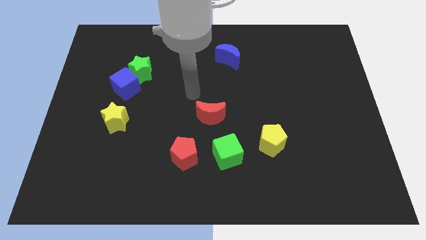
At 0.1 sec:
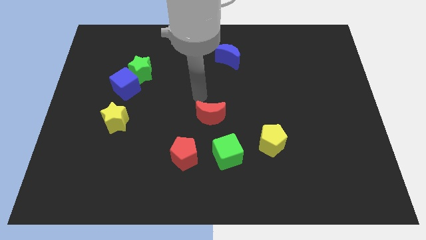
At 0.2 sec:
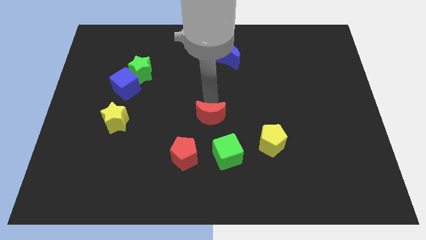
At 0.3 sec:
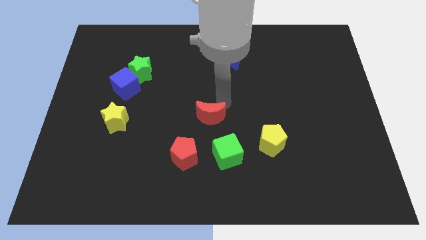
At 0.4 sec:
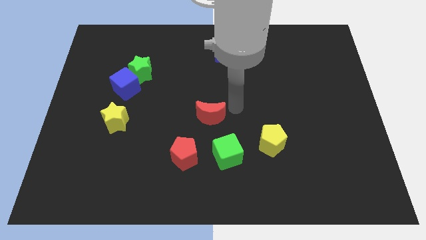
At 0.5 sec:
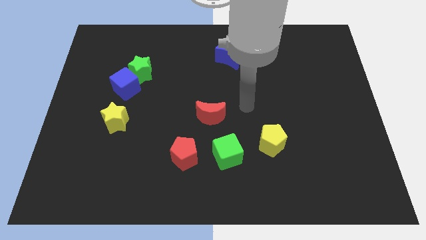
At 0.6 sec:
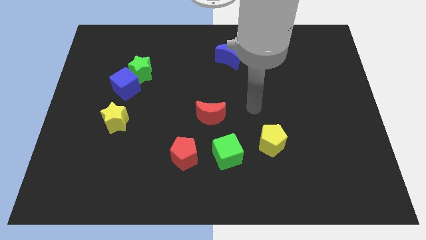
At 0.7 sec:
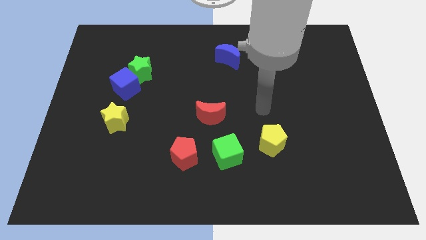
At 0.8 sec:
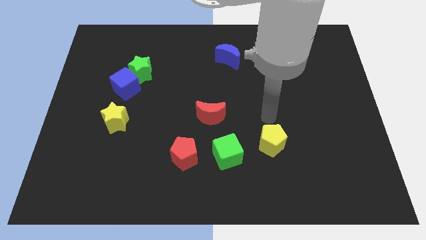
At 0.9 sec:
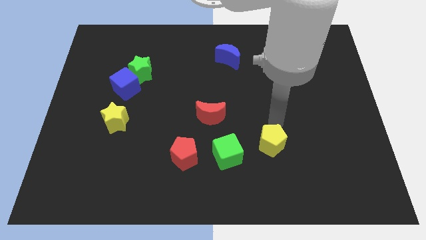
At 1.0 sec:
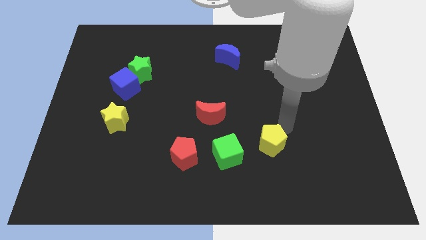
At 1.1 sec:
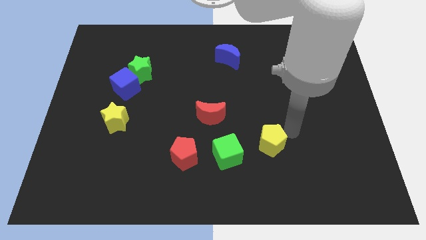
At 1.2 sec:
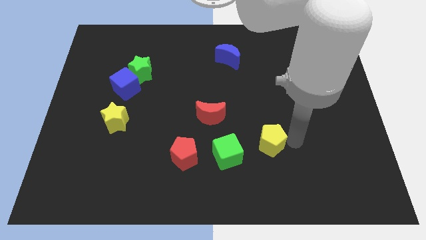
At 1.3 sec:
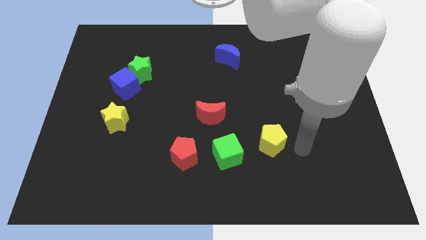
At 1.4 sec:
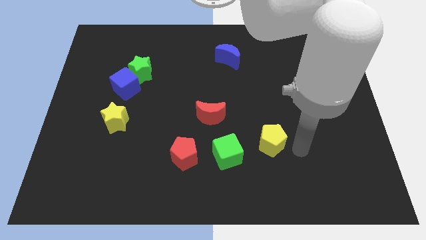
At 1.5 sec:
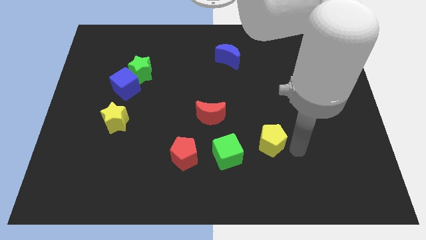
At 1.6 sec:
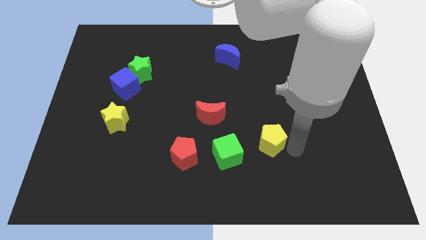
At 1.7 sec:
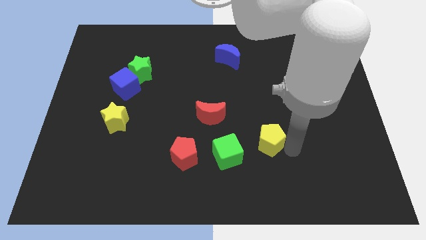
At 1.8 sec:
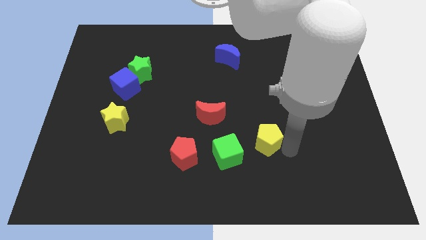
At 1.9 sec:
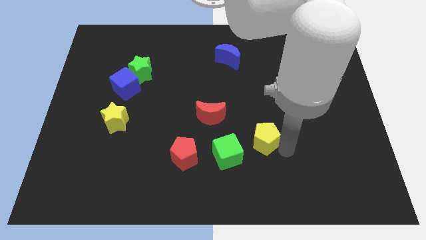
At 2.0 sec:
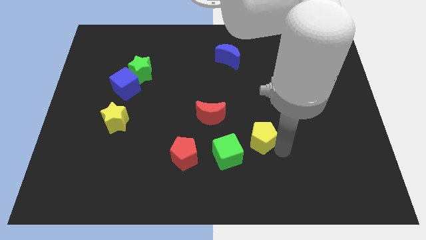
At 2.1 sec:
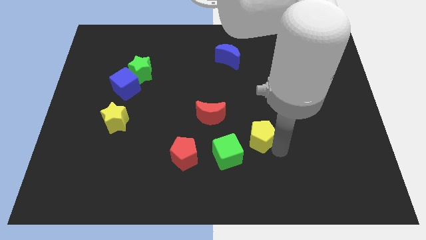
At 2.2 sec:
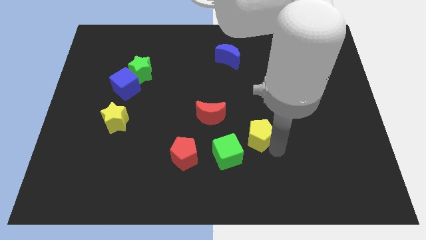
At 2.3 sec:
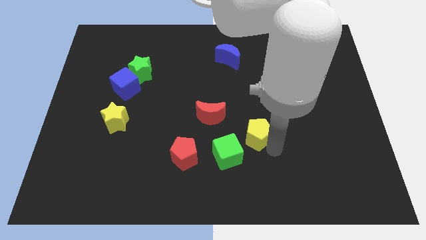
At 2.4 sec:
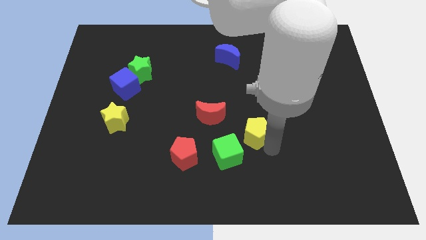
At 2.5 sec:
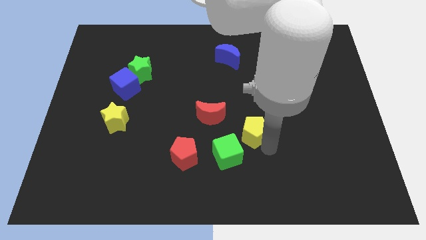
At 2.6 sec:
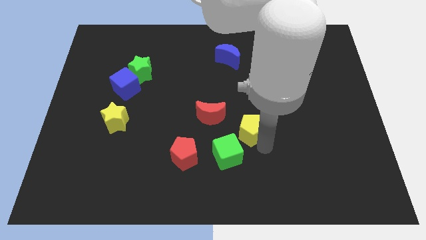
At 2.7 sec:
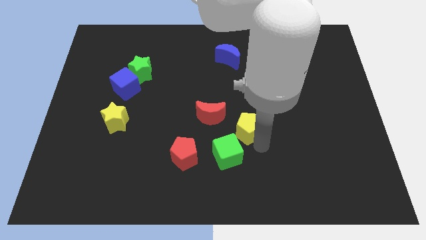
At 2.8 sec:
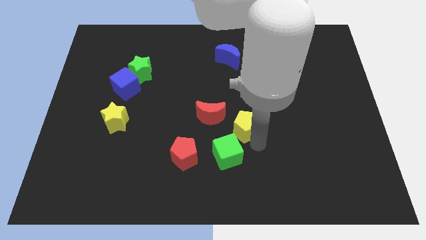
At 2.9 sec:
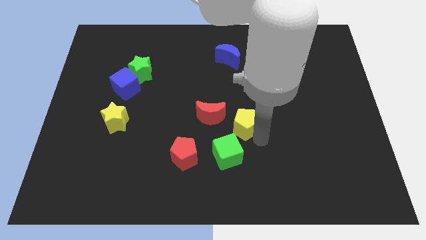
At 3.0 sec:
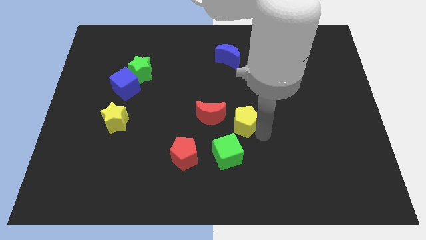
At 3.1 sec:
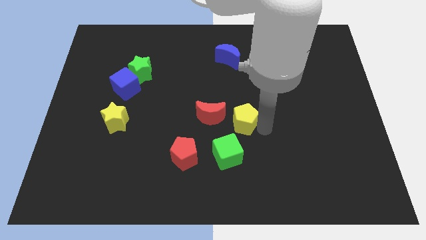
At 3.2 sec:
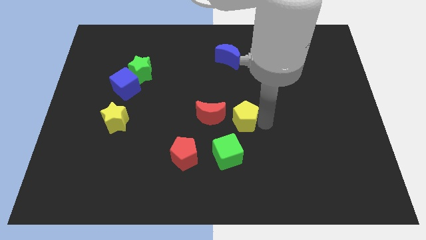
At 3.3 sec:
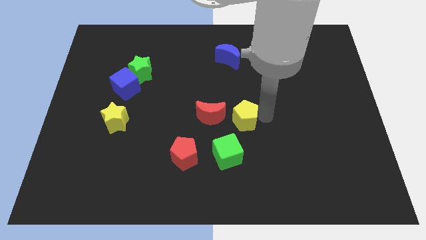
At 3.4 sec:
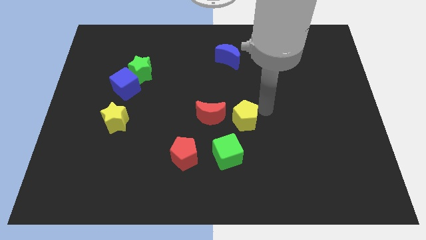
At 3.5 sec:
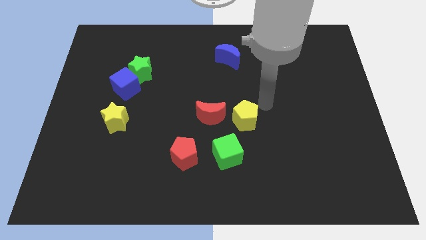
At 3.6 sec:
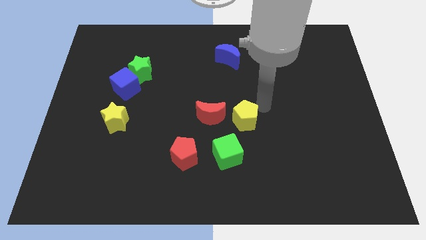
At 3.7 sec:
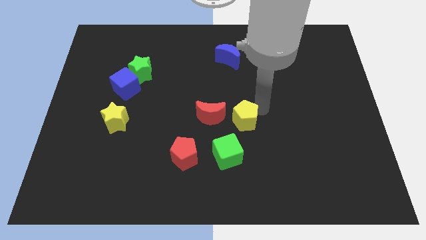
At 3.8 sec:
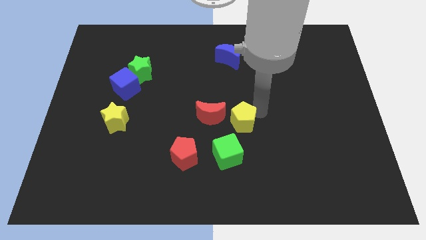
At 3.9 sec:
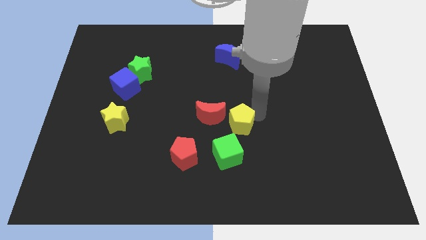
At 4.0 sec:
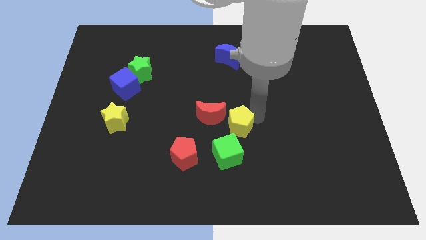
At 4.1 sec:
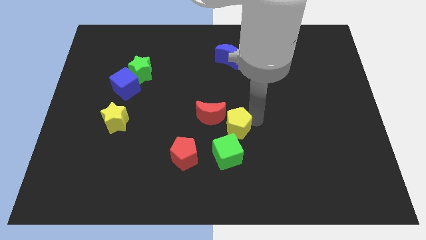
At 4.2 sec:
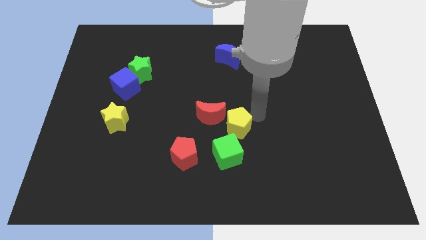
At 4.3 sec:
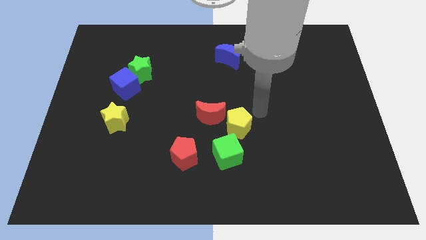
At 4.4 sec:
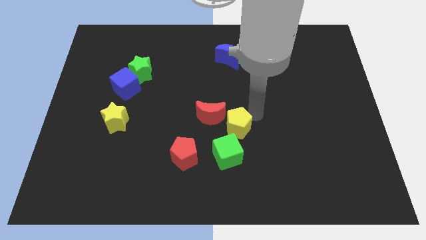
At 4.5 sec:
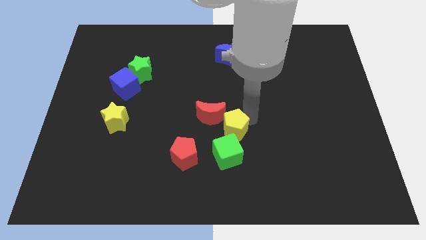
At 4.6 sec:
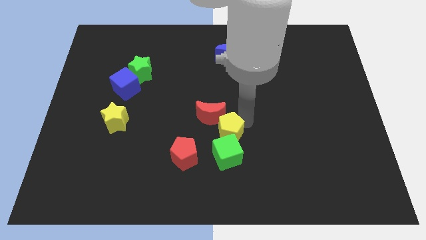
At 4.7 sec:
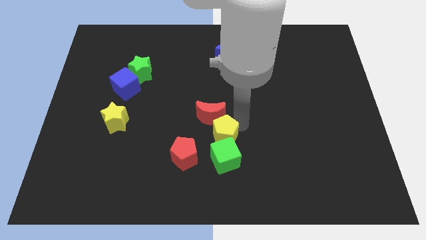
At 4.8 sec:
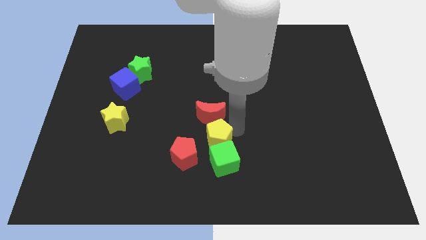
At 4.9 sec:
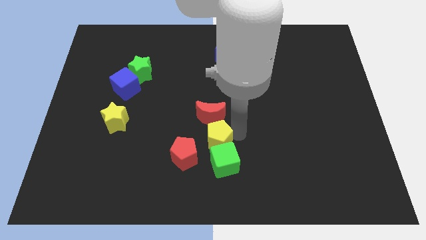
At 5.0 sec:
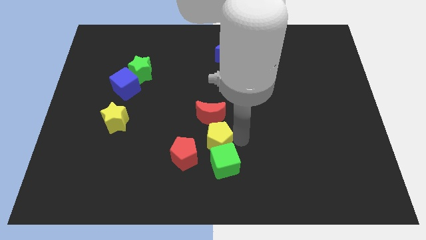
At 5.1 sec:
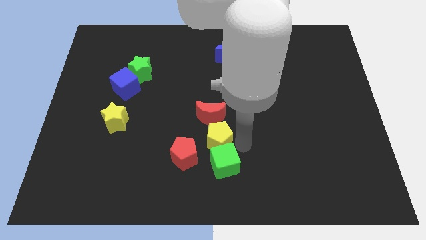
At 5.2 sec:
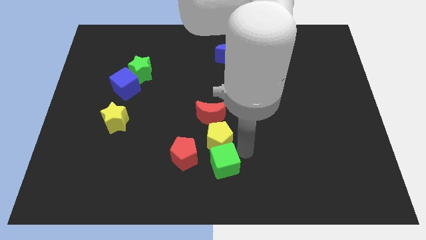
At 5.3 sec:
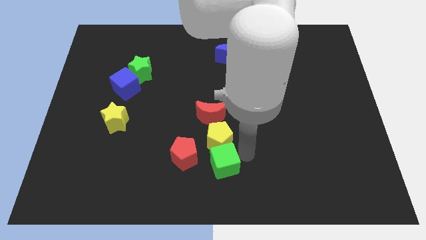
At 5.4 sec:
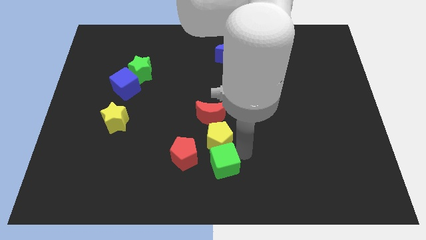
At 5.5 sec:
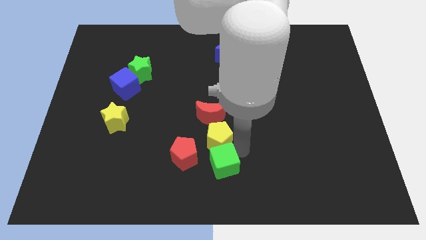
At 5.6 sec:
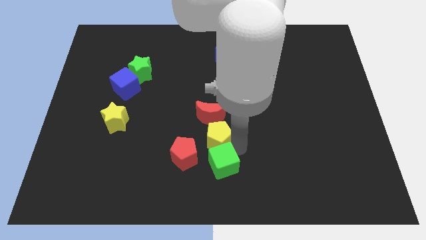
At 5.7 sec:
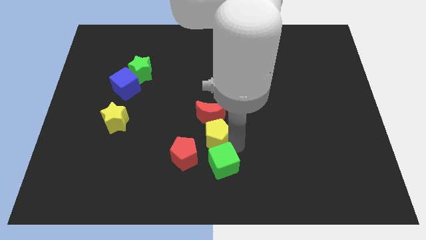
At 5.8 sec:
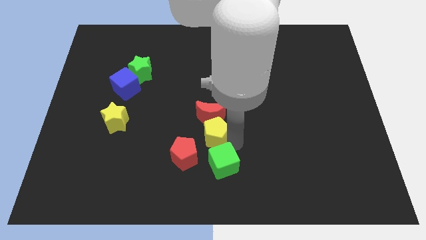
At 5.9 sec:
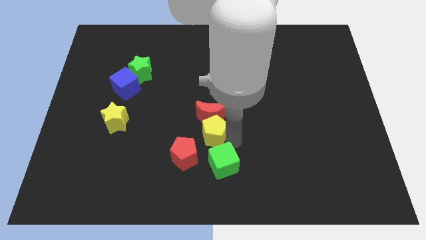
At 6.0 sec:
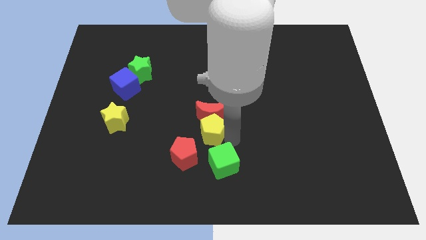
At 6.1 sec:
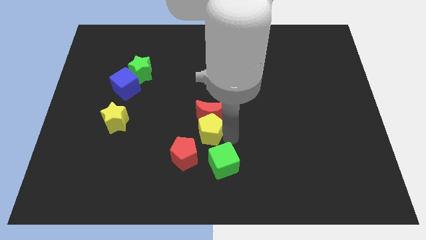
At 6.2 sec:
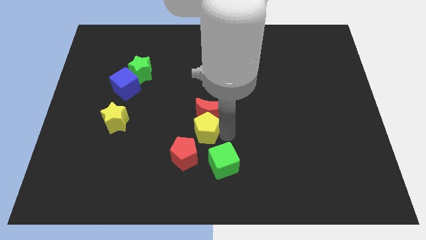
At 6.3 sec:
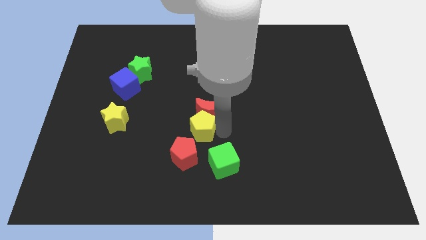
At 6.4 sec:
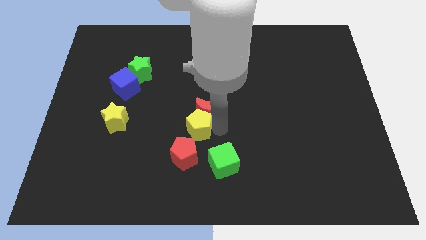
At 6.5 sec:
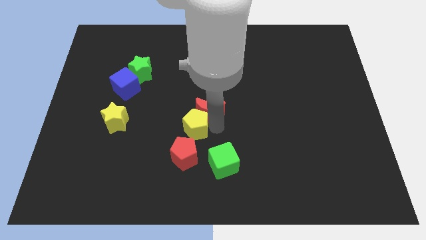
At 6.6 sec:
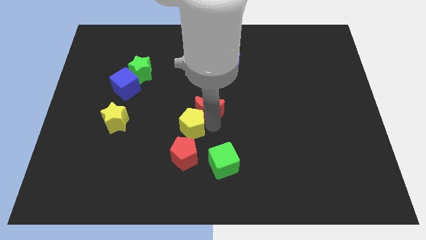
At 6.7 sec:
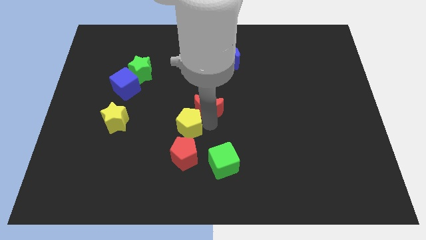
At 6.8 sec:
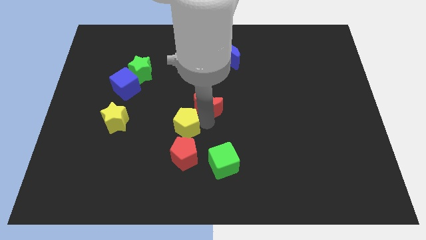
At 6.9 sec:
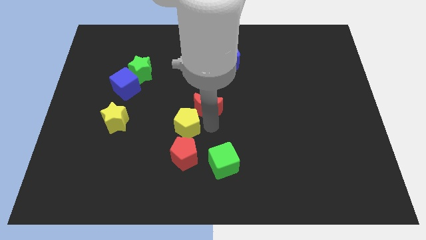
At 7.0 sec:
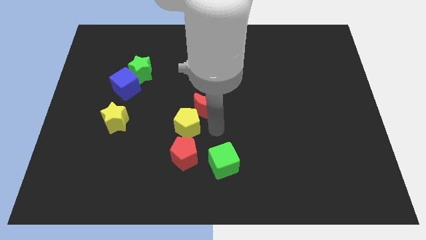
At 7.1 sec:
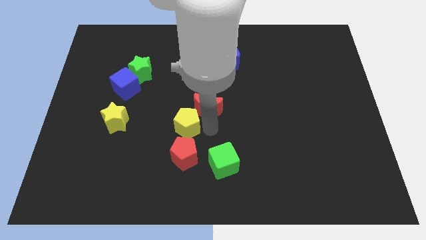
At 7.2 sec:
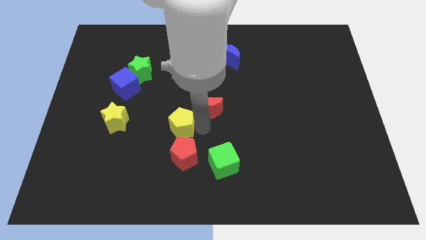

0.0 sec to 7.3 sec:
slide the yellow pentagon right of the yellow star
